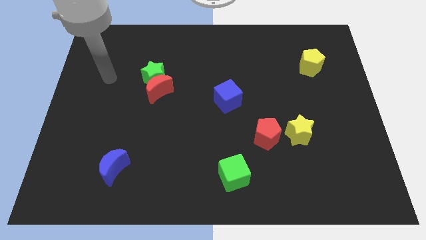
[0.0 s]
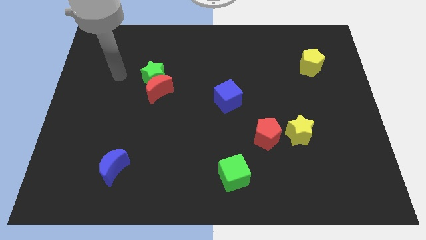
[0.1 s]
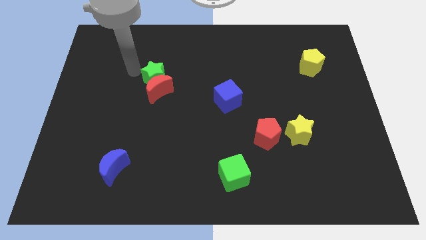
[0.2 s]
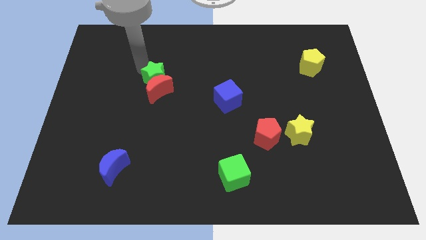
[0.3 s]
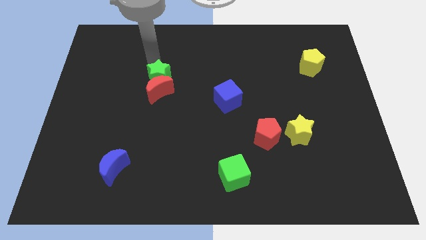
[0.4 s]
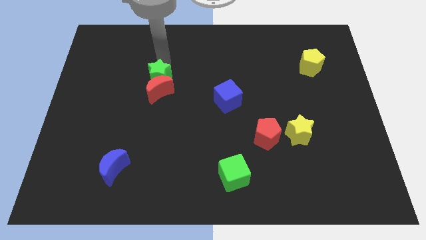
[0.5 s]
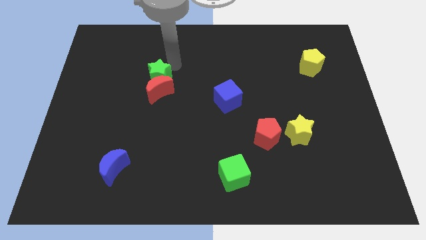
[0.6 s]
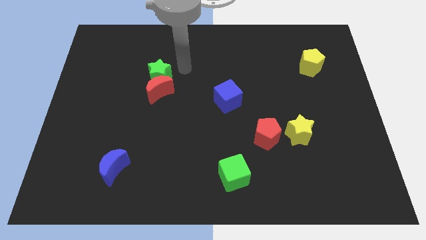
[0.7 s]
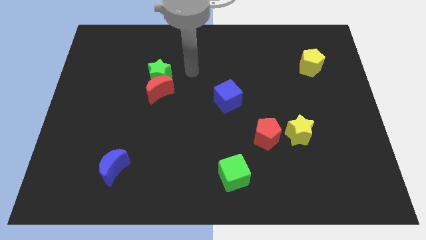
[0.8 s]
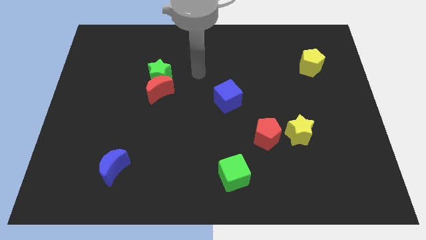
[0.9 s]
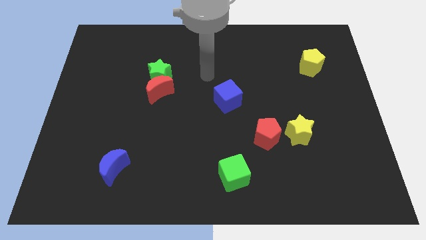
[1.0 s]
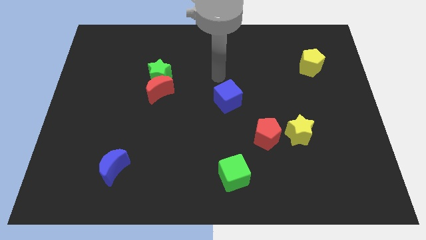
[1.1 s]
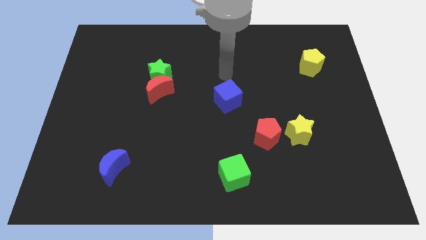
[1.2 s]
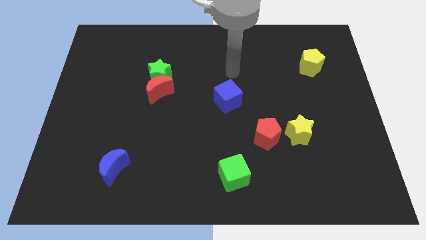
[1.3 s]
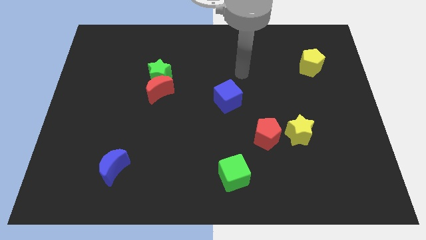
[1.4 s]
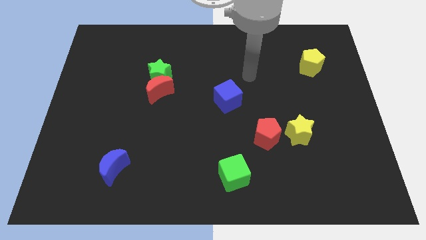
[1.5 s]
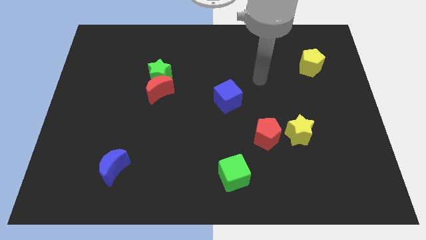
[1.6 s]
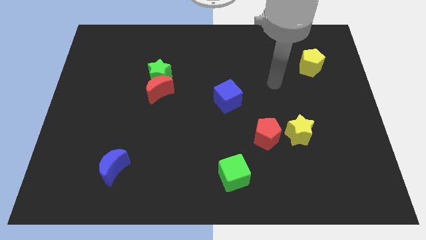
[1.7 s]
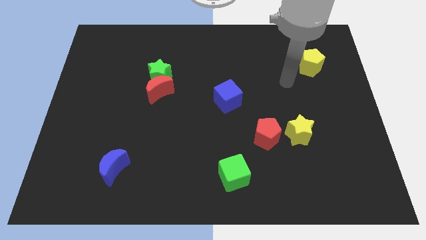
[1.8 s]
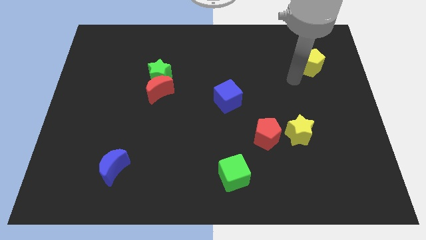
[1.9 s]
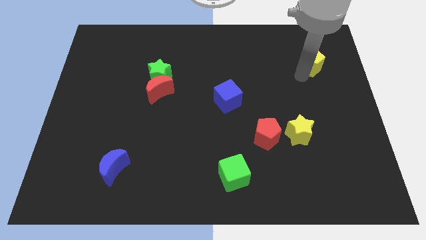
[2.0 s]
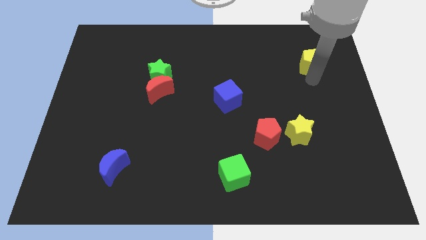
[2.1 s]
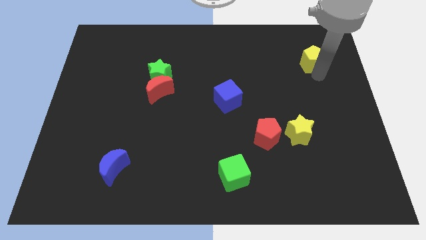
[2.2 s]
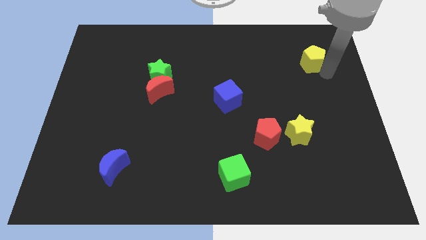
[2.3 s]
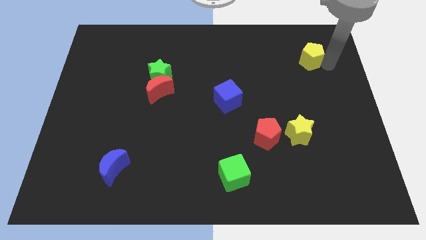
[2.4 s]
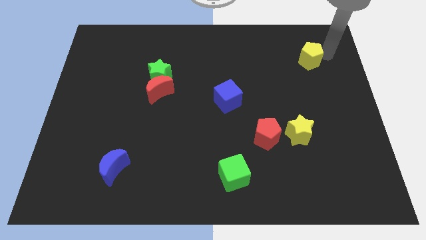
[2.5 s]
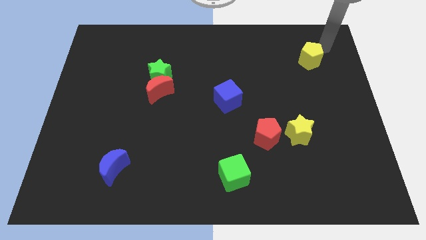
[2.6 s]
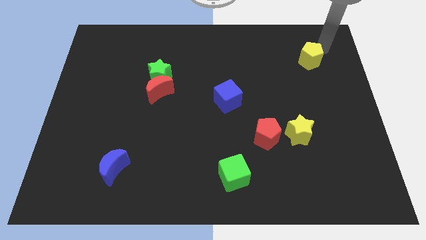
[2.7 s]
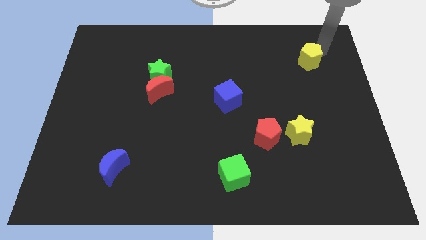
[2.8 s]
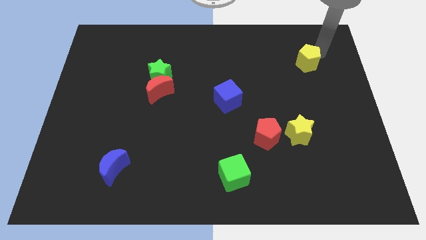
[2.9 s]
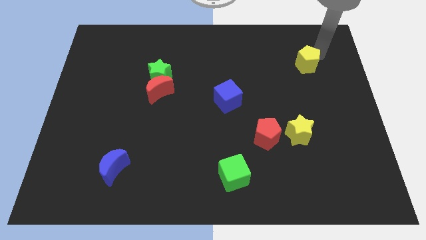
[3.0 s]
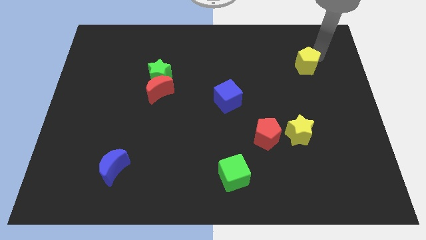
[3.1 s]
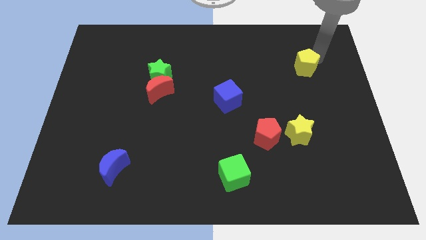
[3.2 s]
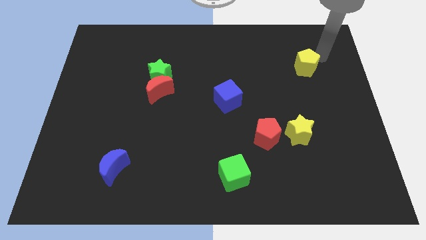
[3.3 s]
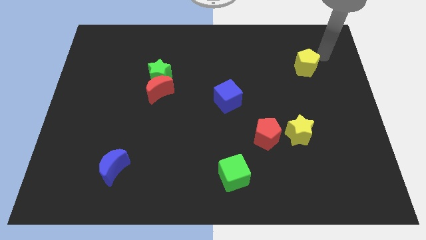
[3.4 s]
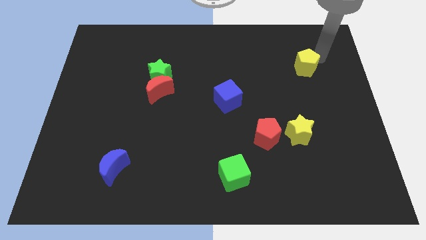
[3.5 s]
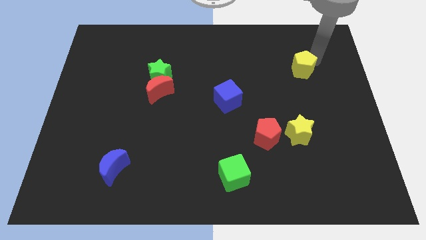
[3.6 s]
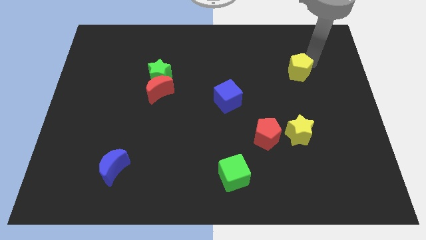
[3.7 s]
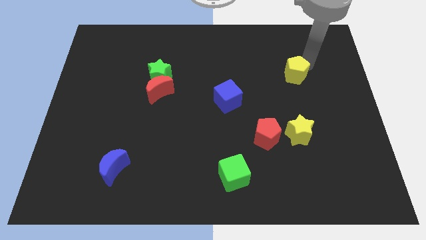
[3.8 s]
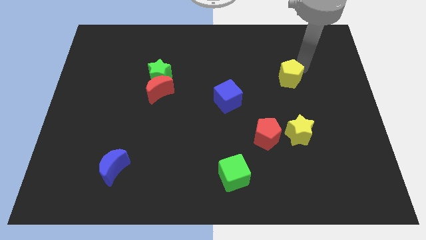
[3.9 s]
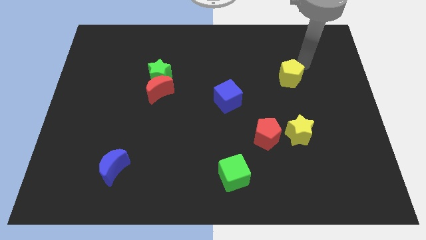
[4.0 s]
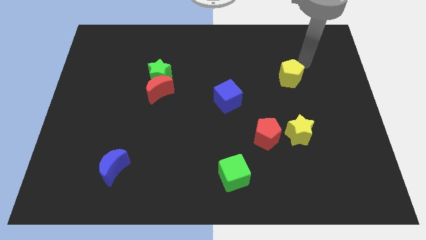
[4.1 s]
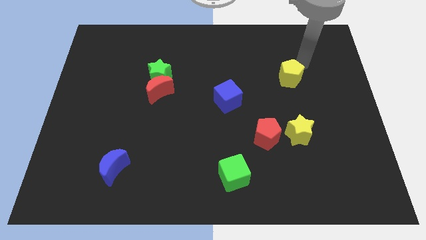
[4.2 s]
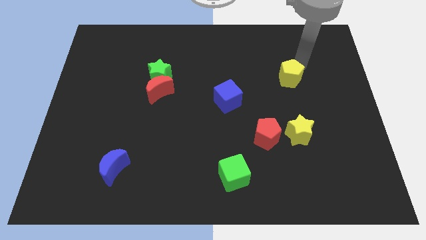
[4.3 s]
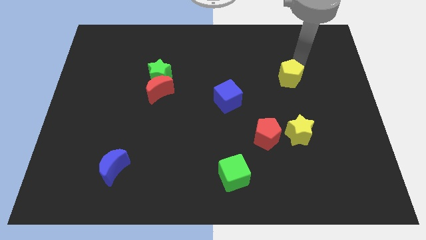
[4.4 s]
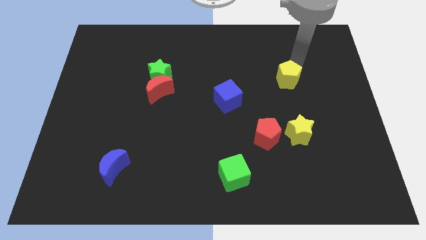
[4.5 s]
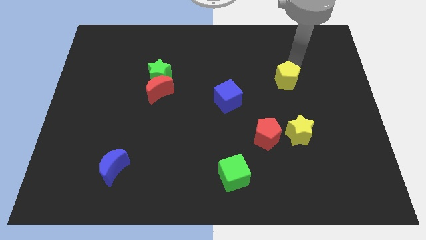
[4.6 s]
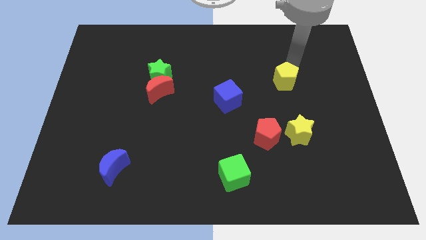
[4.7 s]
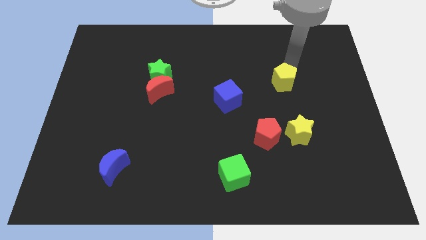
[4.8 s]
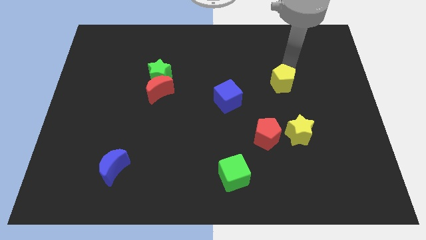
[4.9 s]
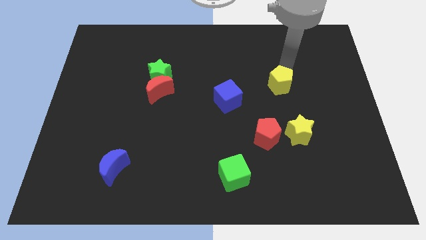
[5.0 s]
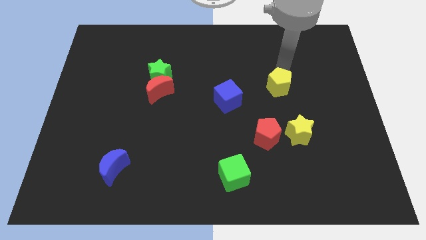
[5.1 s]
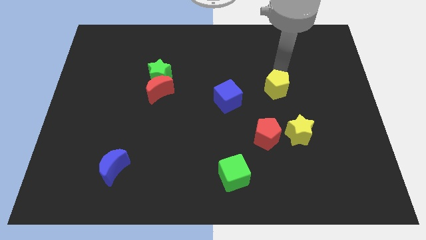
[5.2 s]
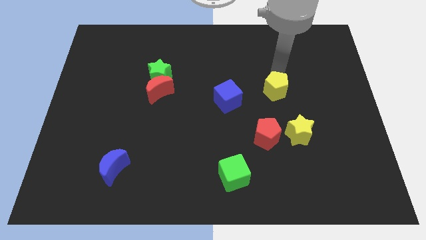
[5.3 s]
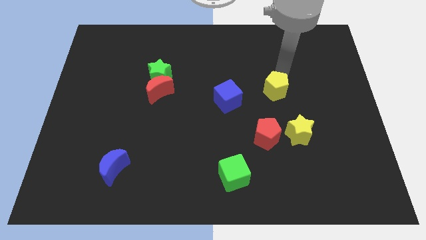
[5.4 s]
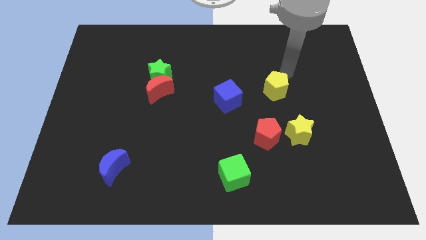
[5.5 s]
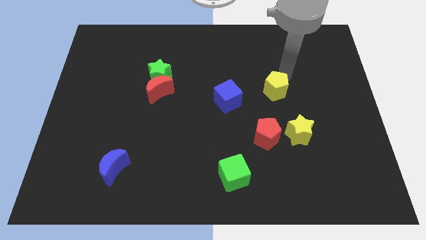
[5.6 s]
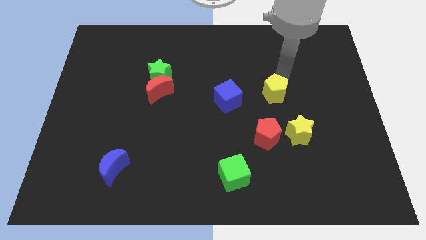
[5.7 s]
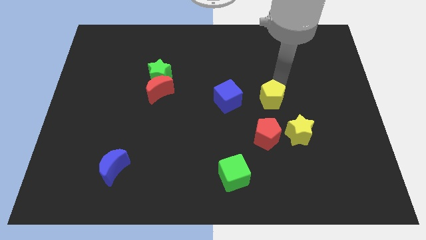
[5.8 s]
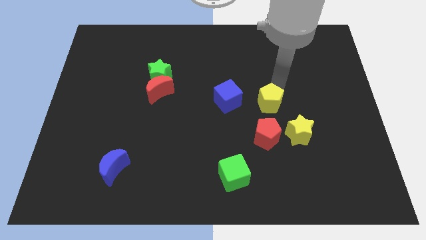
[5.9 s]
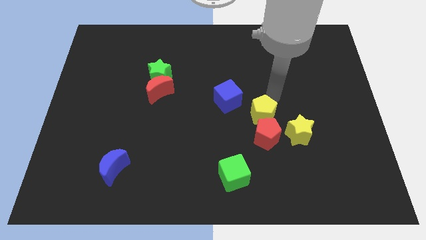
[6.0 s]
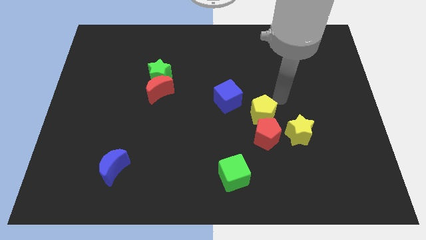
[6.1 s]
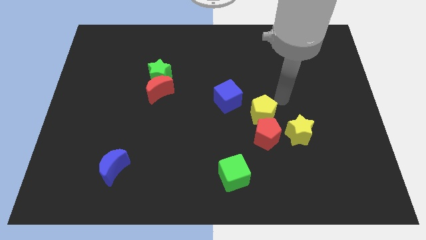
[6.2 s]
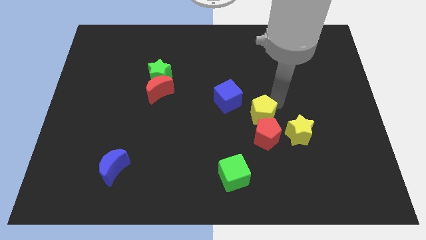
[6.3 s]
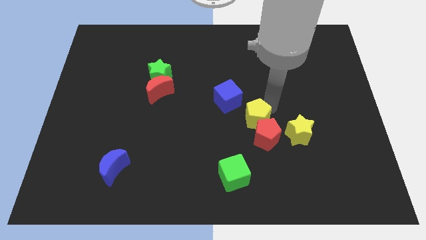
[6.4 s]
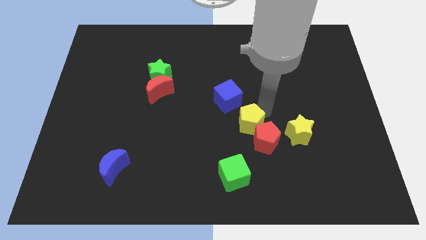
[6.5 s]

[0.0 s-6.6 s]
push the yellow pentagon to the top of the green cube

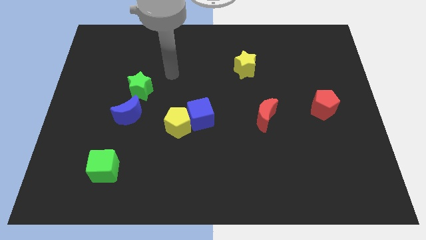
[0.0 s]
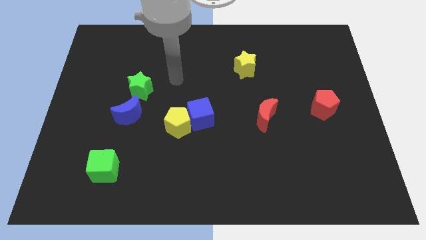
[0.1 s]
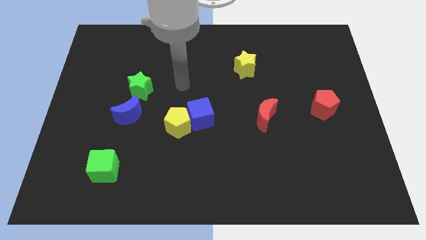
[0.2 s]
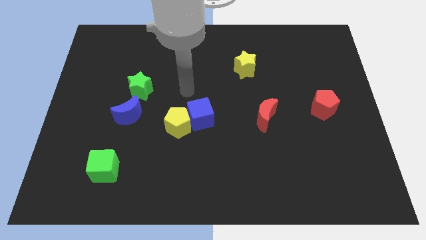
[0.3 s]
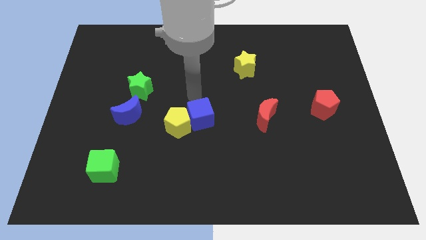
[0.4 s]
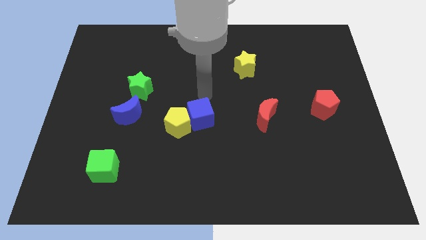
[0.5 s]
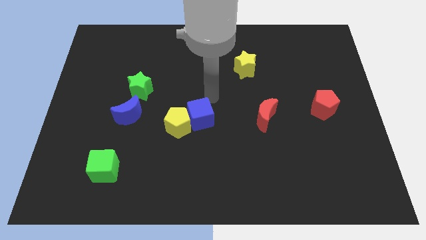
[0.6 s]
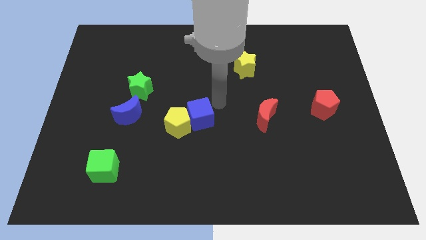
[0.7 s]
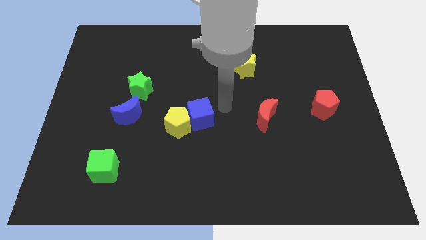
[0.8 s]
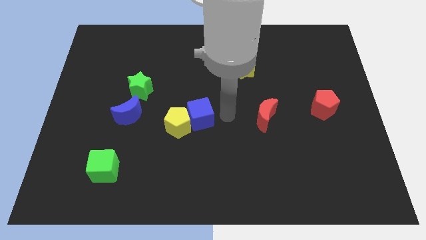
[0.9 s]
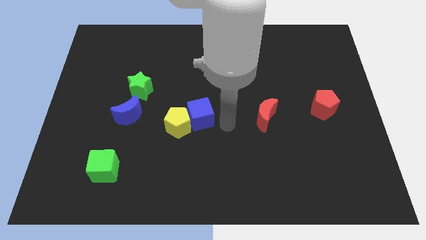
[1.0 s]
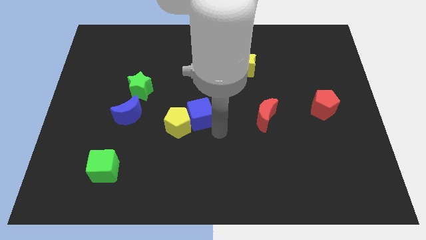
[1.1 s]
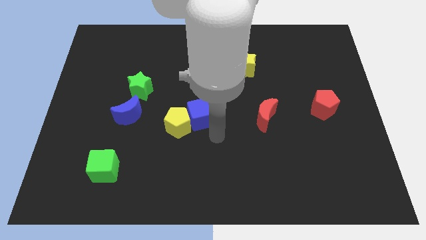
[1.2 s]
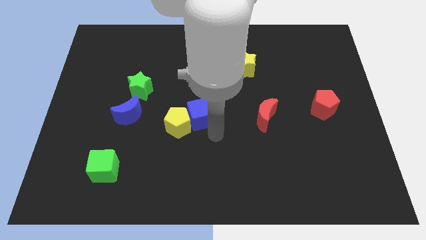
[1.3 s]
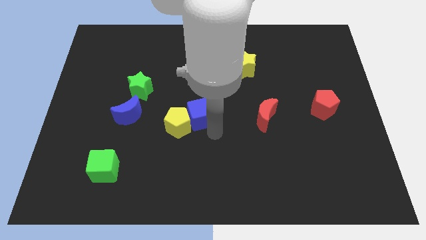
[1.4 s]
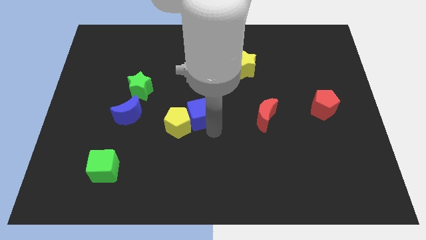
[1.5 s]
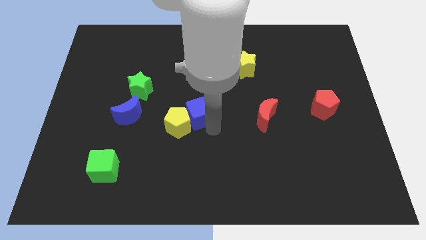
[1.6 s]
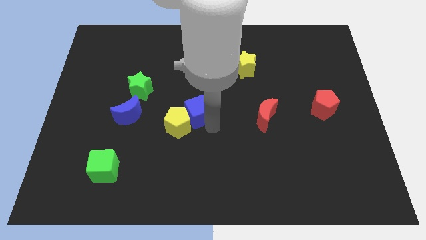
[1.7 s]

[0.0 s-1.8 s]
slide the blue cube to the top of the yellow pentagon
